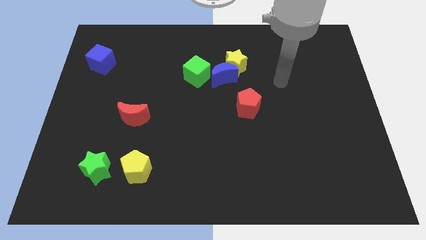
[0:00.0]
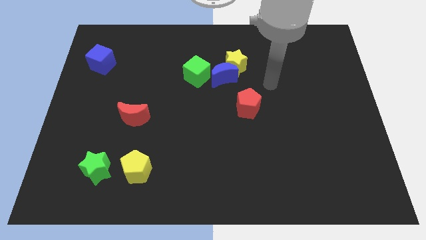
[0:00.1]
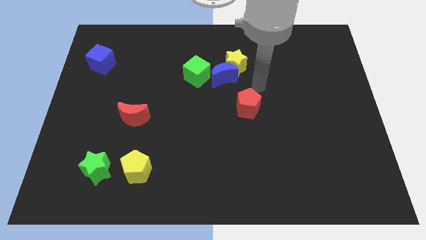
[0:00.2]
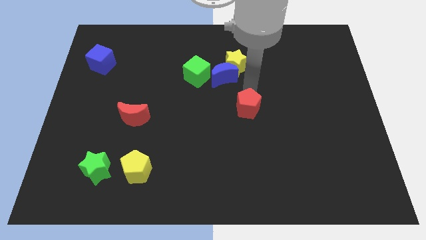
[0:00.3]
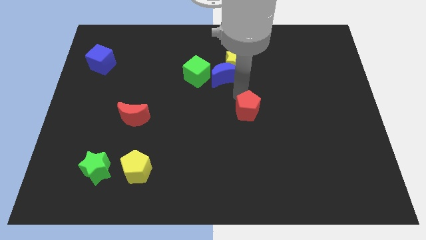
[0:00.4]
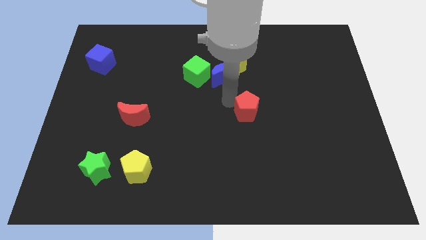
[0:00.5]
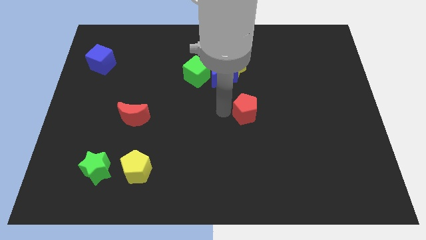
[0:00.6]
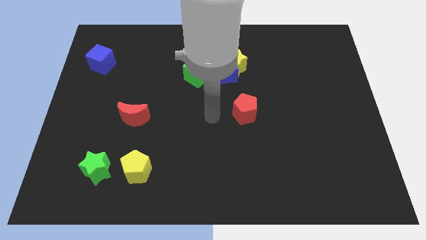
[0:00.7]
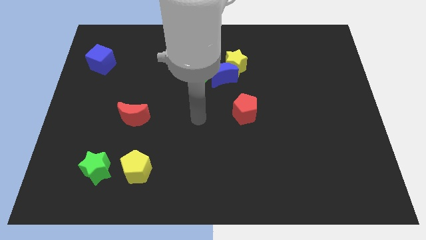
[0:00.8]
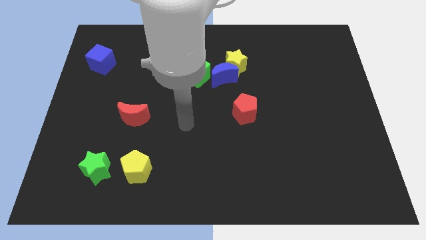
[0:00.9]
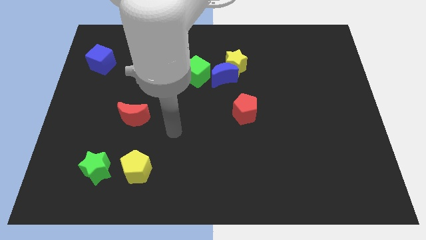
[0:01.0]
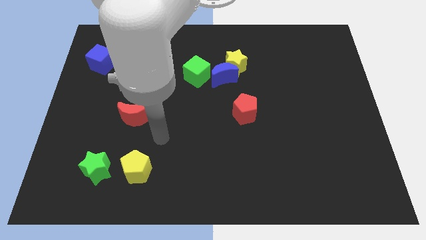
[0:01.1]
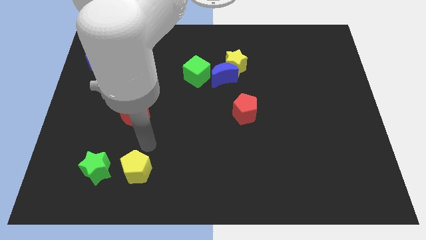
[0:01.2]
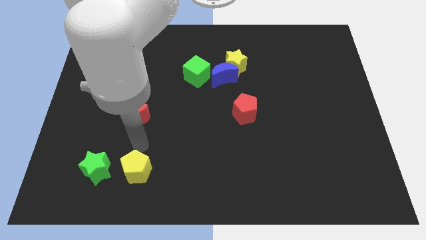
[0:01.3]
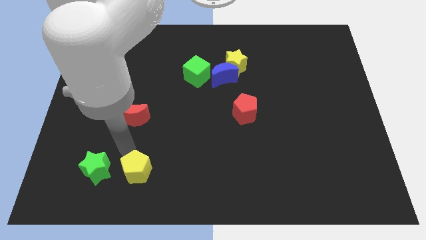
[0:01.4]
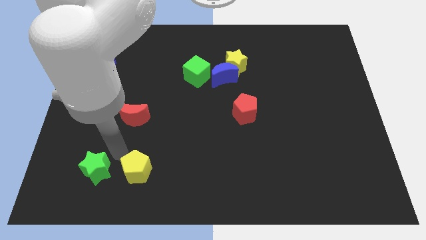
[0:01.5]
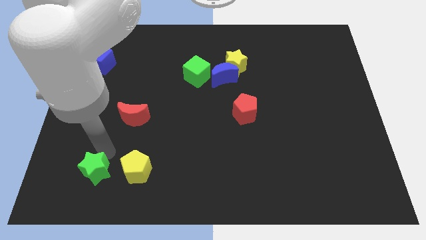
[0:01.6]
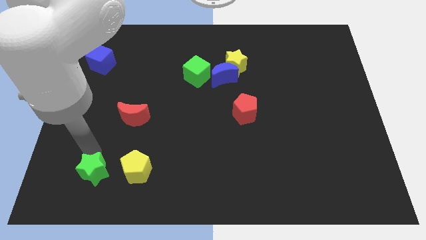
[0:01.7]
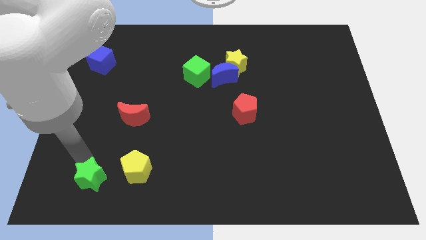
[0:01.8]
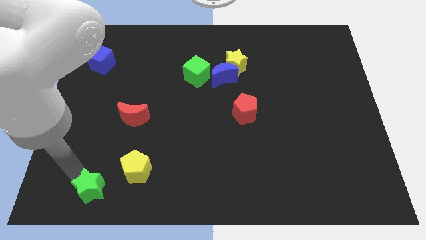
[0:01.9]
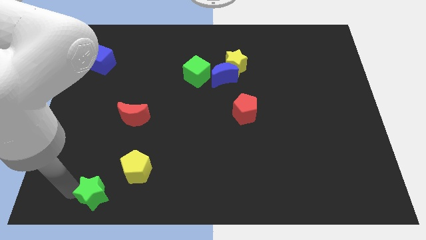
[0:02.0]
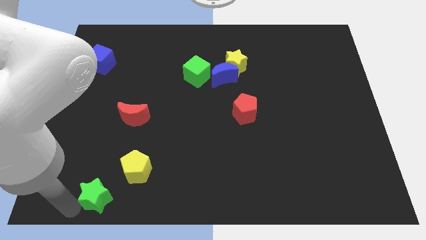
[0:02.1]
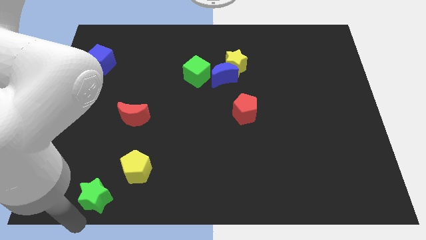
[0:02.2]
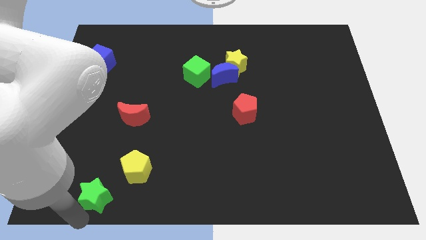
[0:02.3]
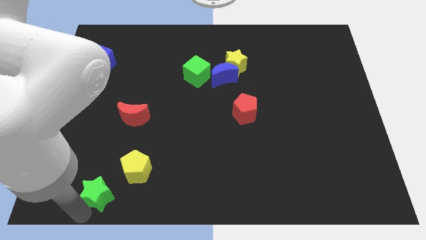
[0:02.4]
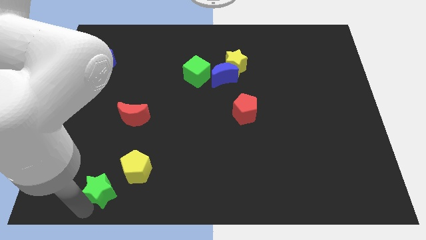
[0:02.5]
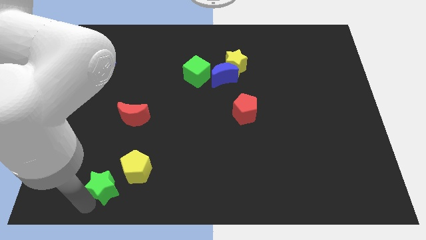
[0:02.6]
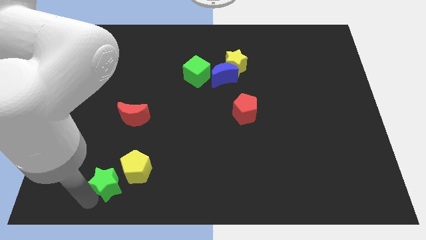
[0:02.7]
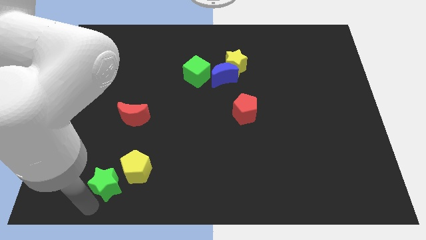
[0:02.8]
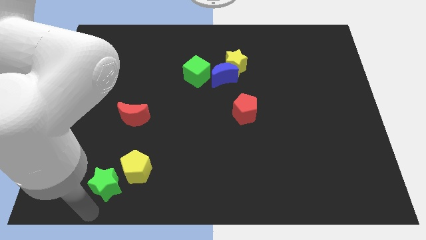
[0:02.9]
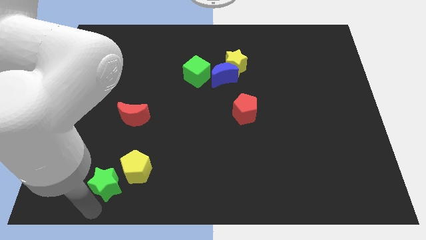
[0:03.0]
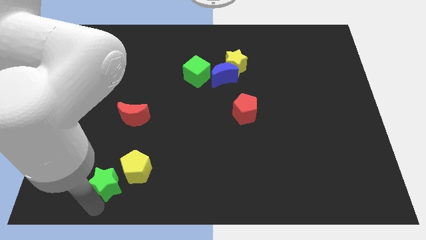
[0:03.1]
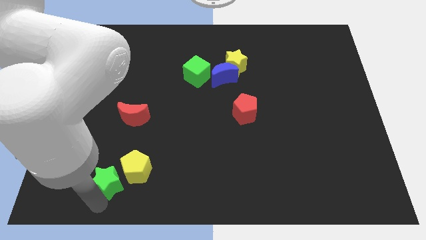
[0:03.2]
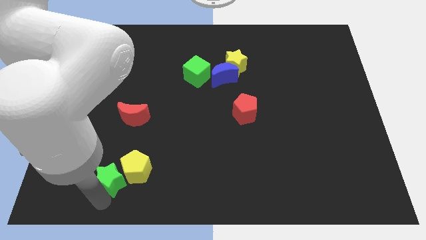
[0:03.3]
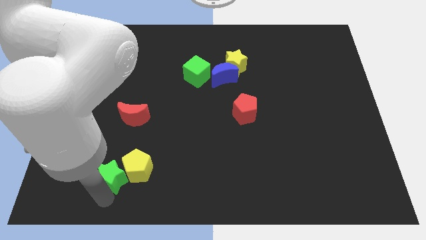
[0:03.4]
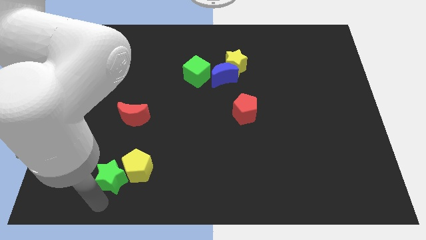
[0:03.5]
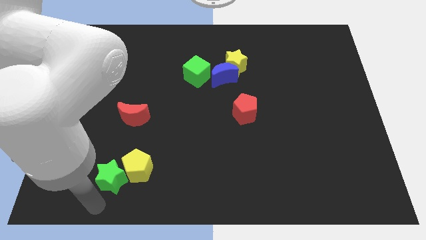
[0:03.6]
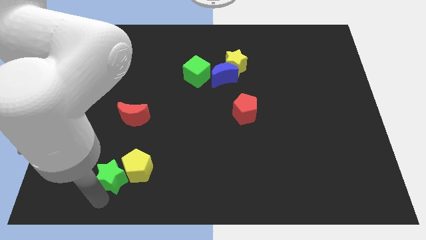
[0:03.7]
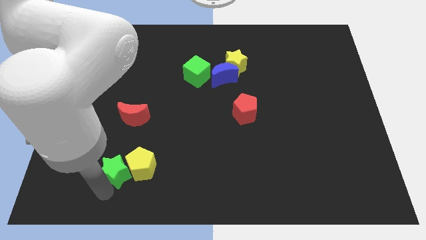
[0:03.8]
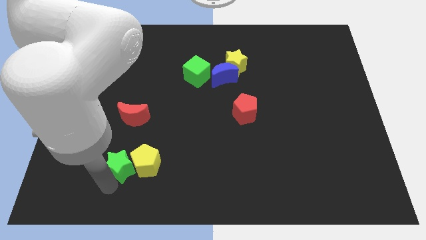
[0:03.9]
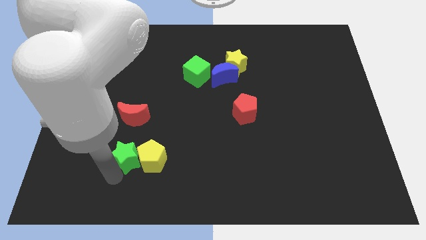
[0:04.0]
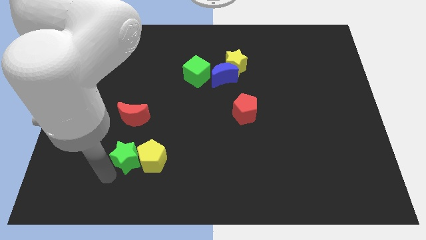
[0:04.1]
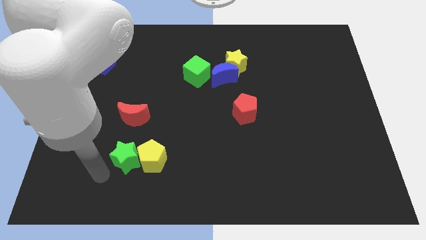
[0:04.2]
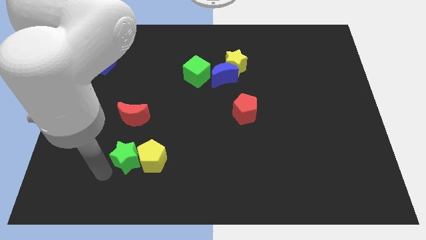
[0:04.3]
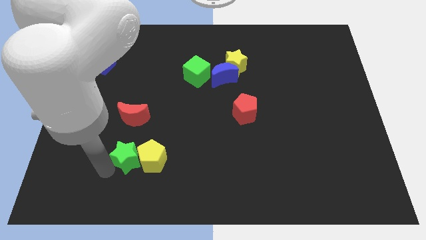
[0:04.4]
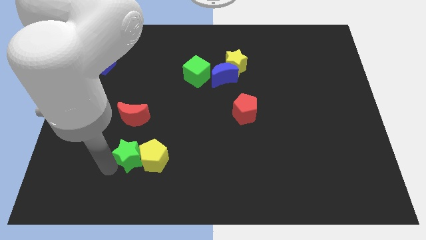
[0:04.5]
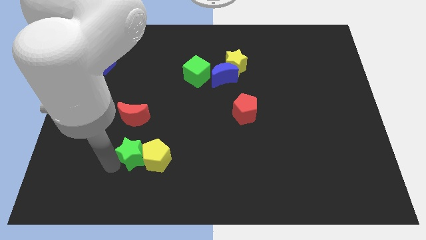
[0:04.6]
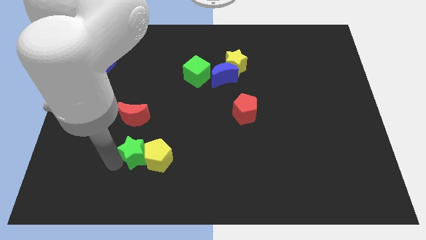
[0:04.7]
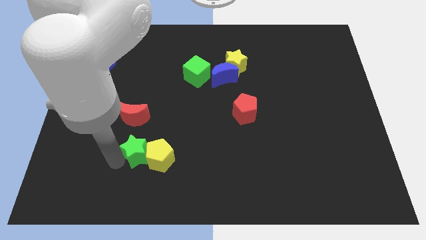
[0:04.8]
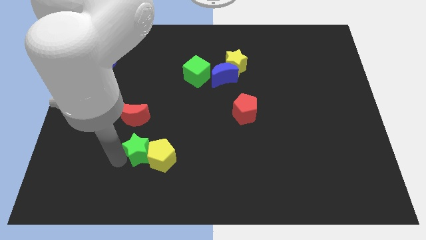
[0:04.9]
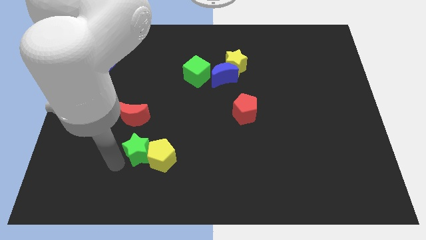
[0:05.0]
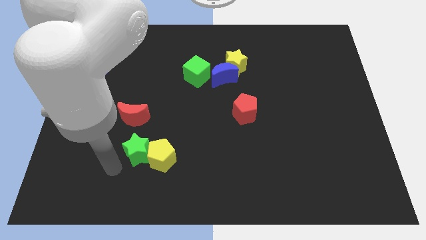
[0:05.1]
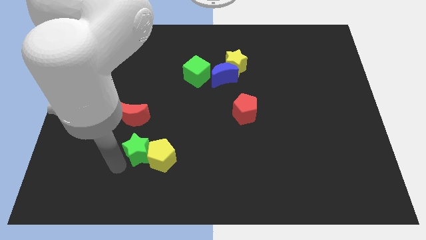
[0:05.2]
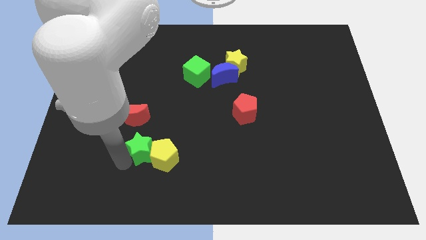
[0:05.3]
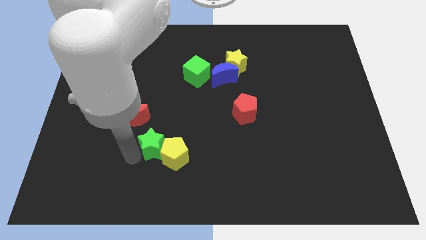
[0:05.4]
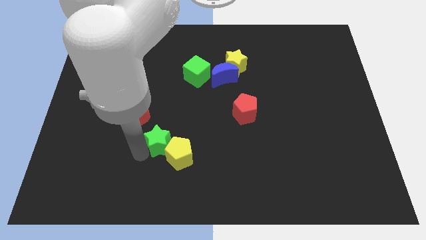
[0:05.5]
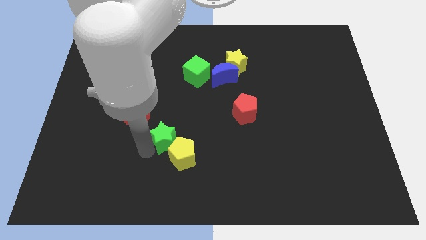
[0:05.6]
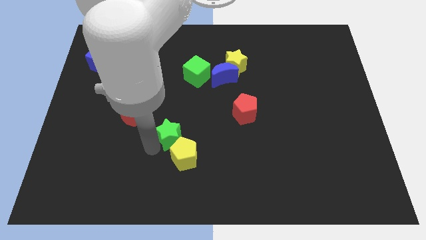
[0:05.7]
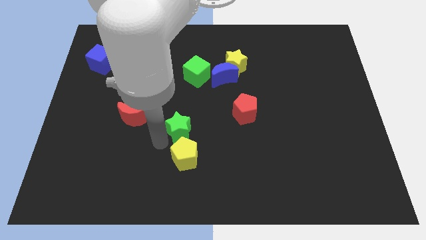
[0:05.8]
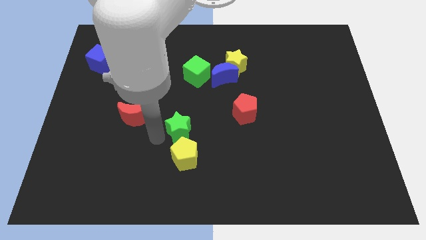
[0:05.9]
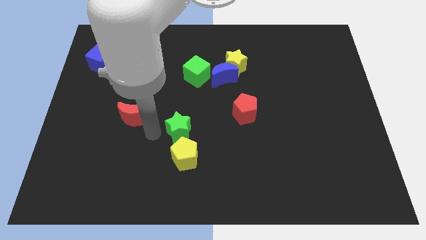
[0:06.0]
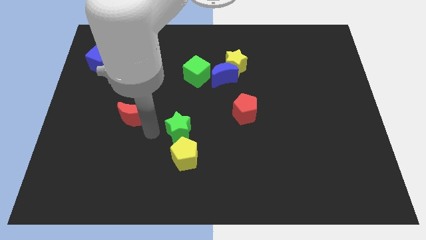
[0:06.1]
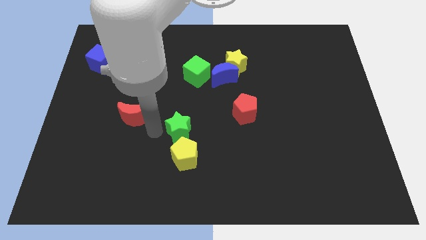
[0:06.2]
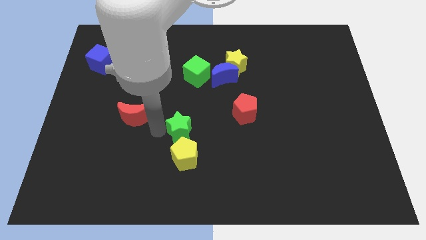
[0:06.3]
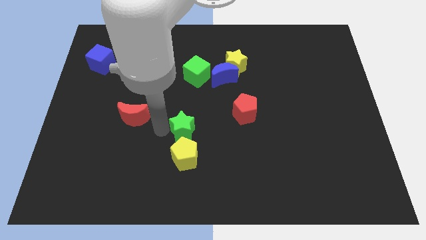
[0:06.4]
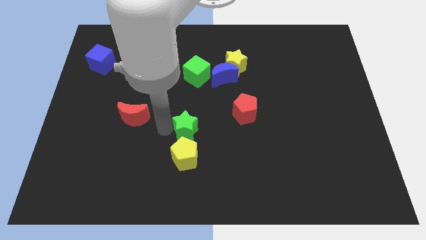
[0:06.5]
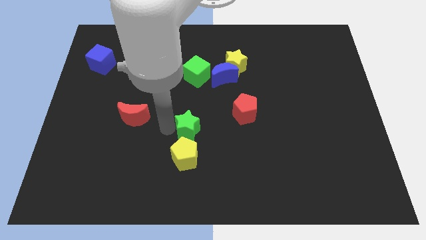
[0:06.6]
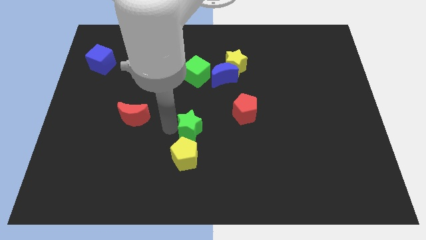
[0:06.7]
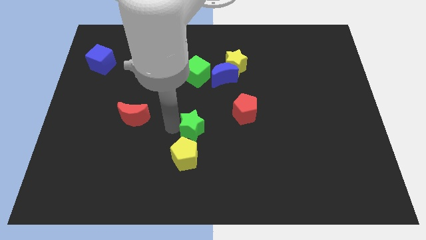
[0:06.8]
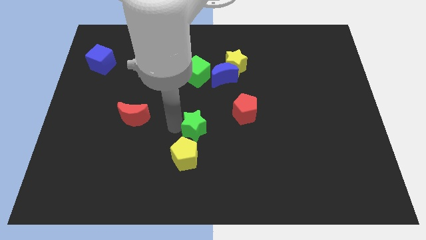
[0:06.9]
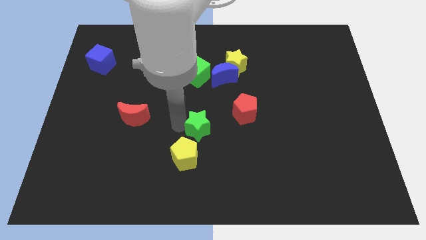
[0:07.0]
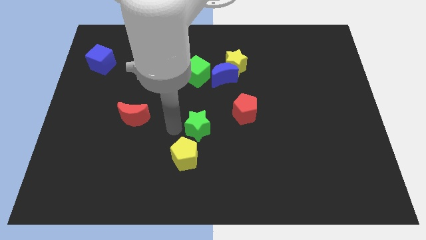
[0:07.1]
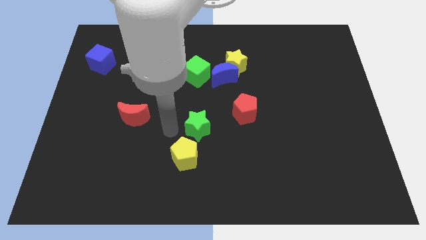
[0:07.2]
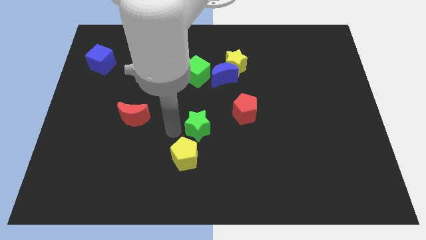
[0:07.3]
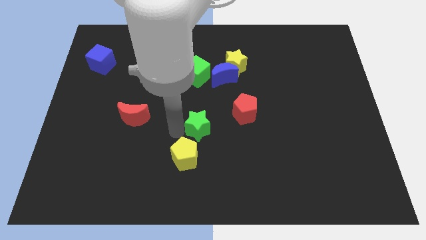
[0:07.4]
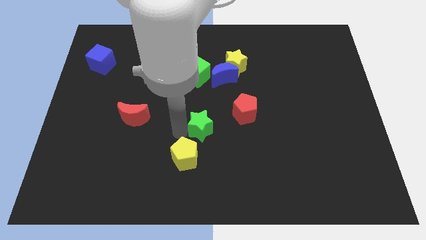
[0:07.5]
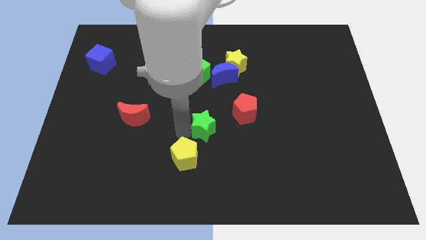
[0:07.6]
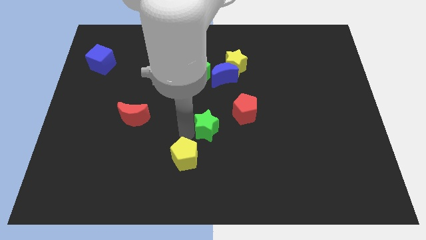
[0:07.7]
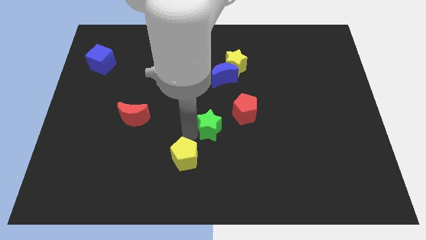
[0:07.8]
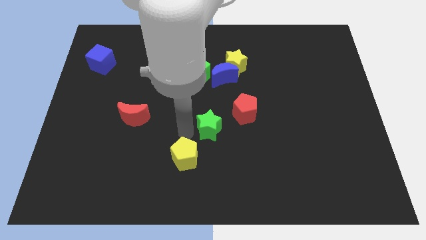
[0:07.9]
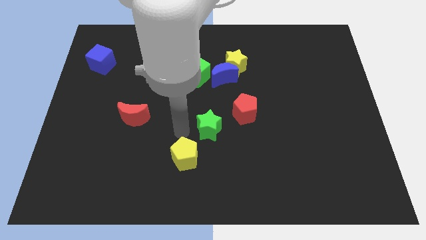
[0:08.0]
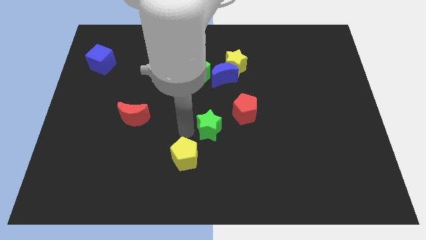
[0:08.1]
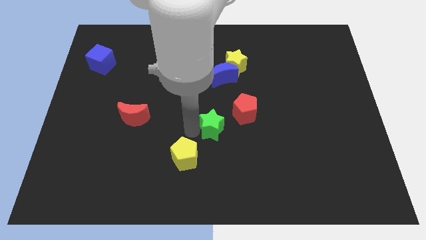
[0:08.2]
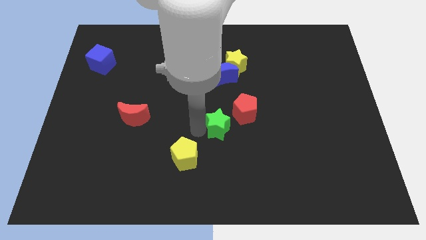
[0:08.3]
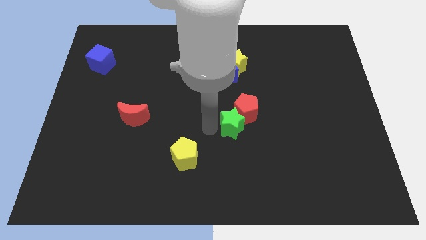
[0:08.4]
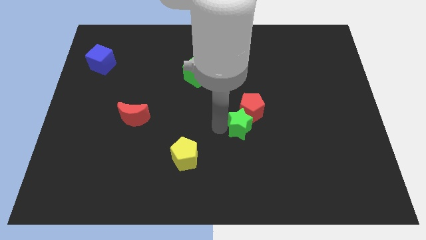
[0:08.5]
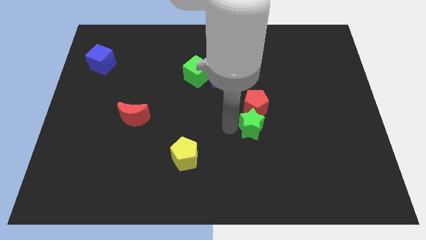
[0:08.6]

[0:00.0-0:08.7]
push the green star diagonally down and to the right of the red pentagon
